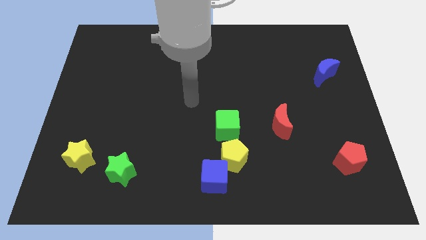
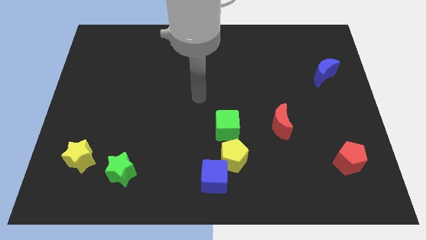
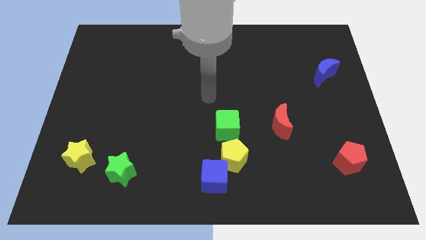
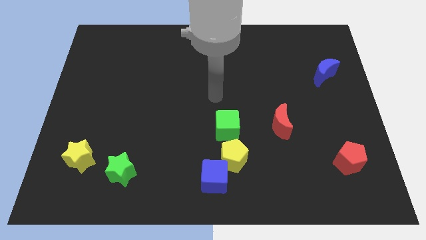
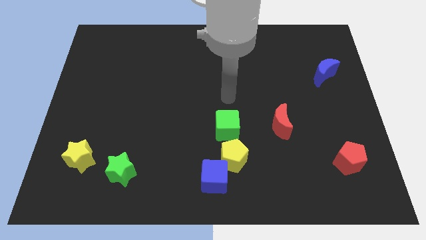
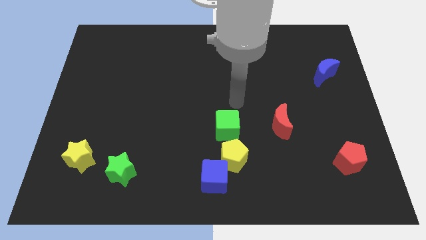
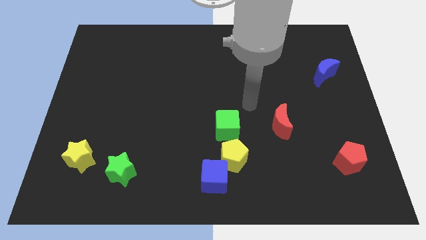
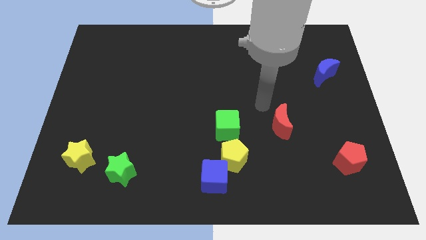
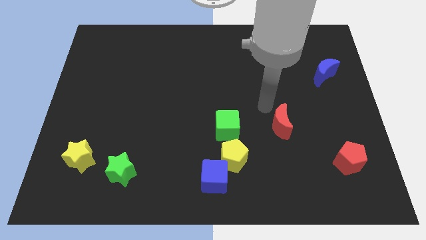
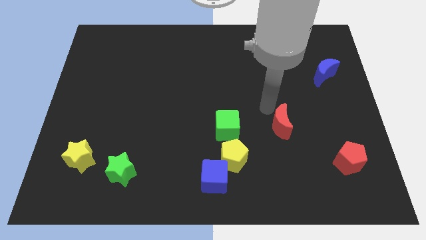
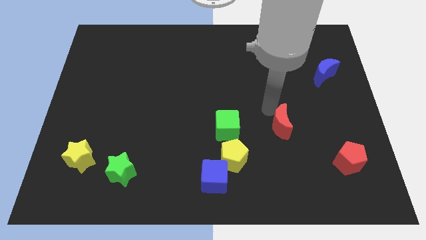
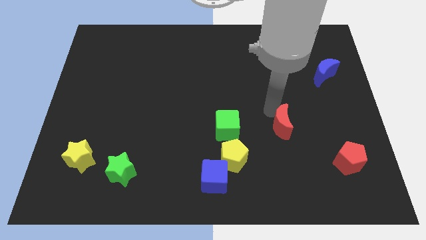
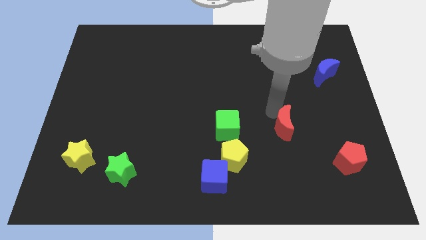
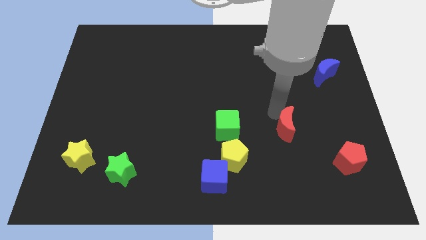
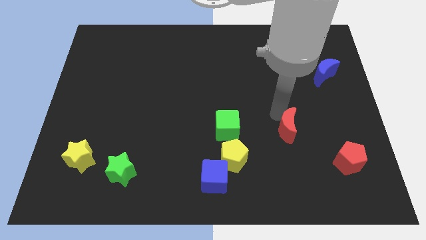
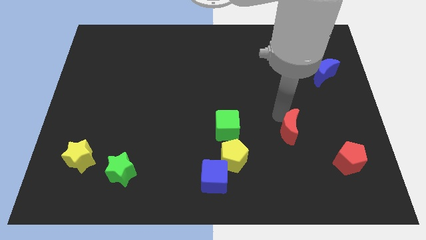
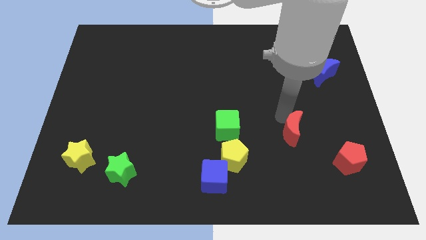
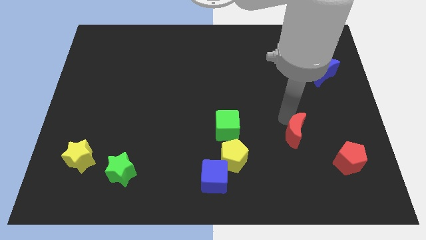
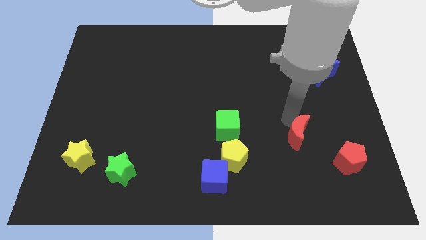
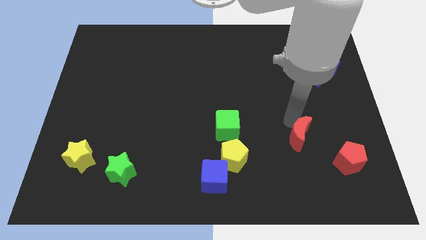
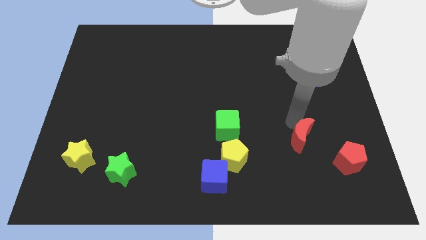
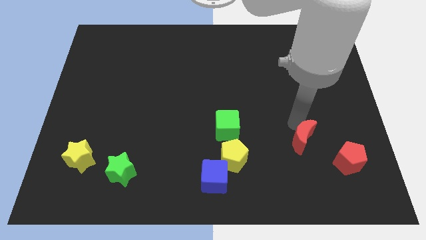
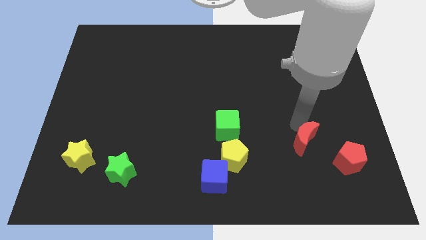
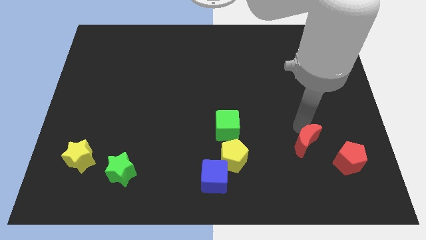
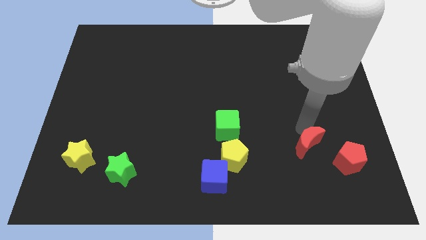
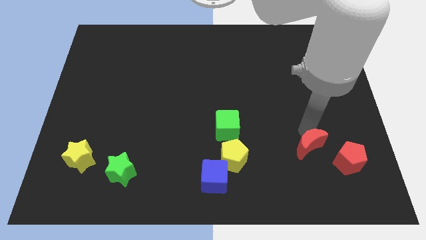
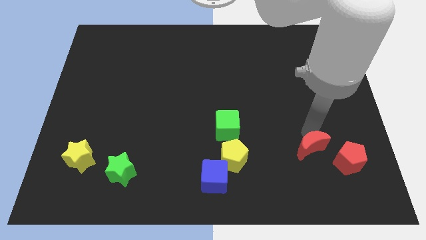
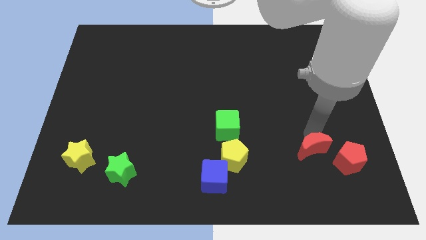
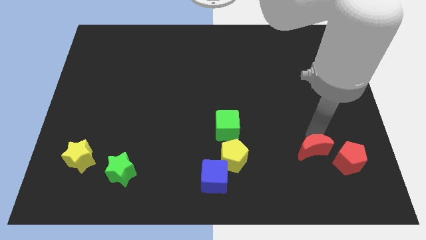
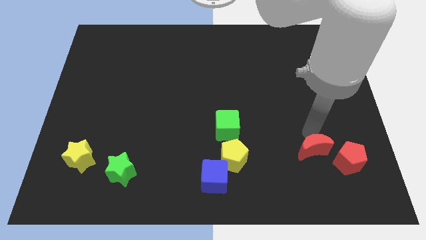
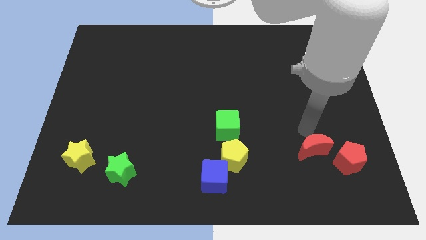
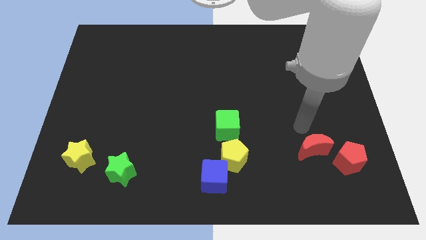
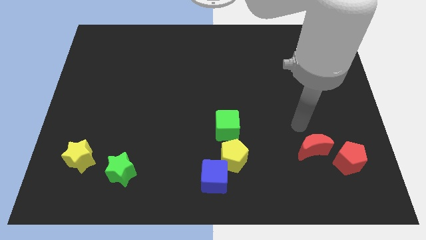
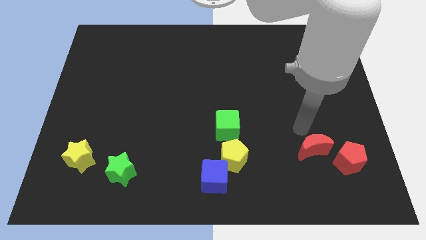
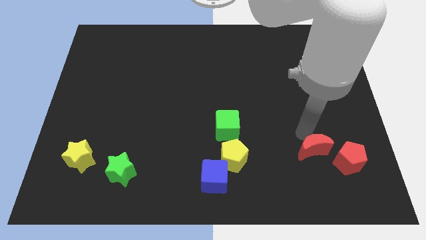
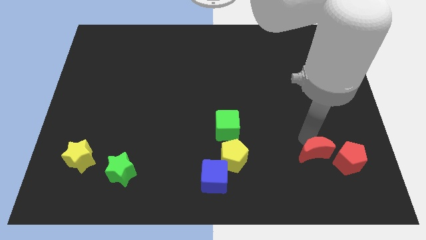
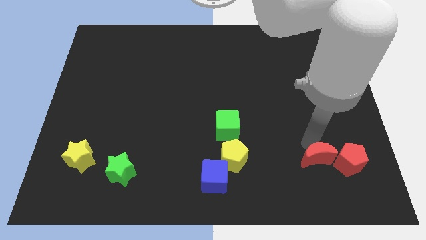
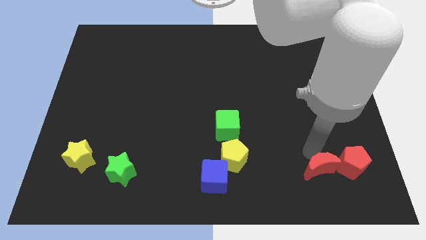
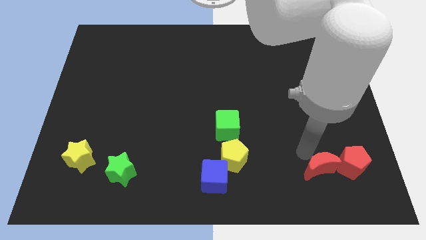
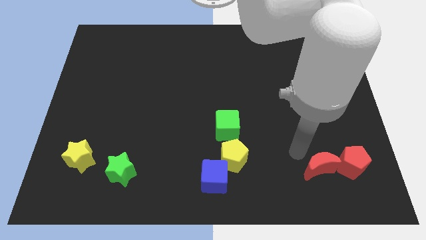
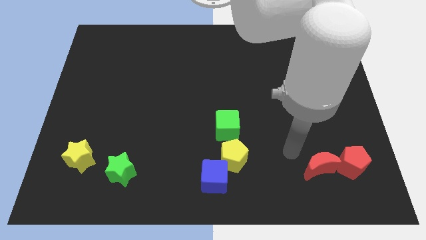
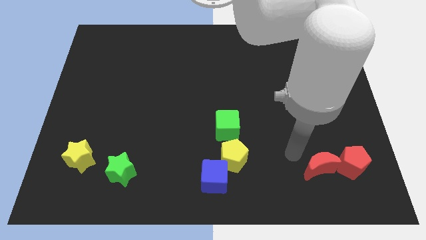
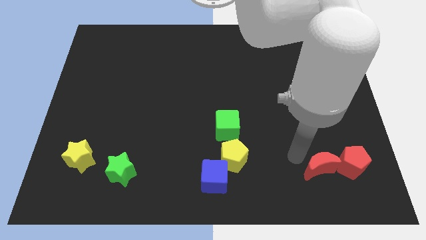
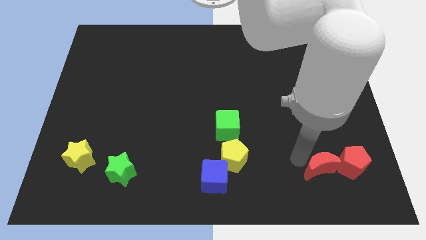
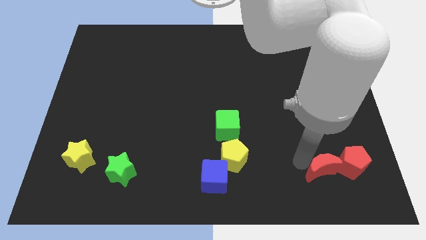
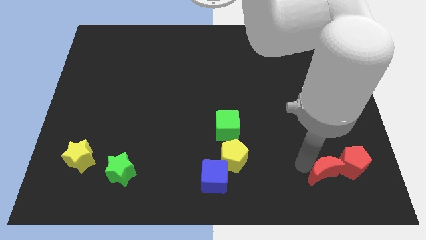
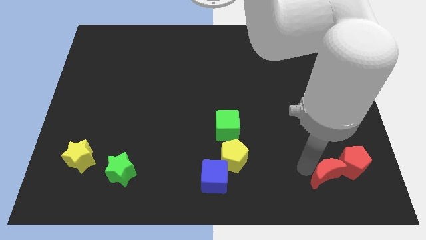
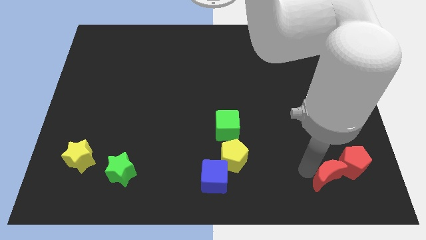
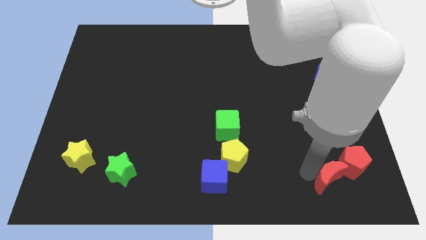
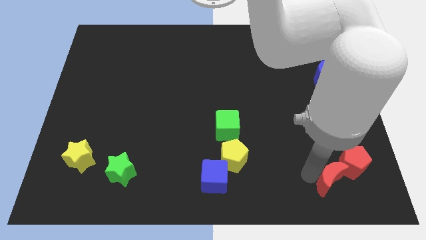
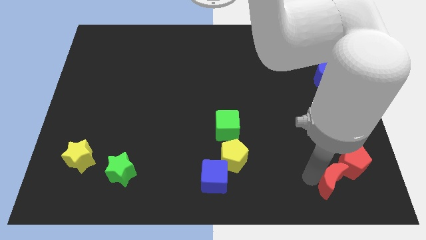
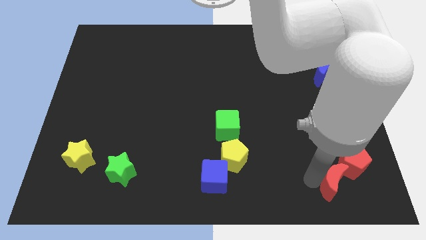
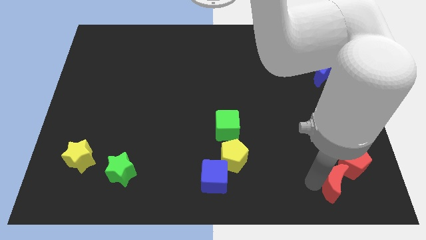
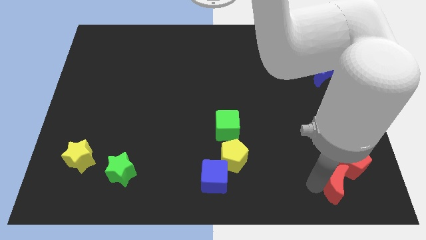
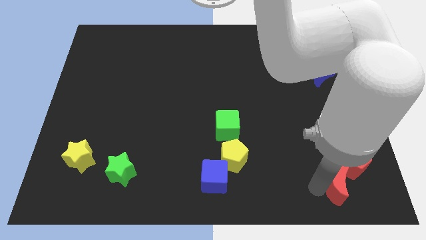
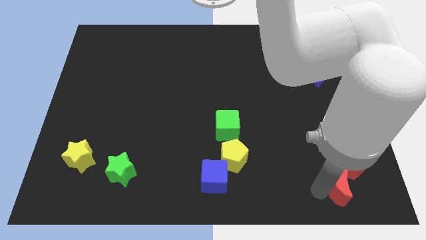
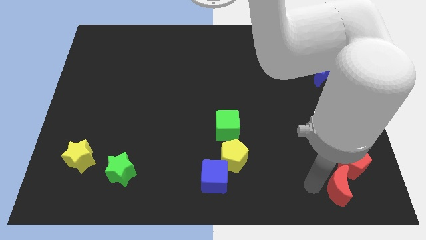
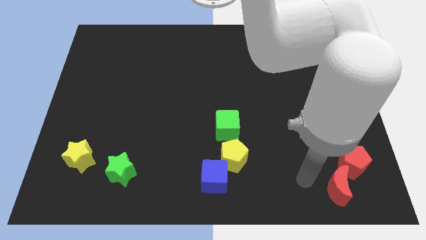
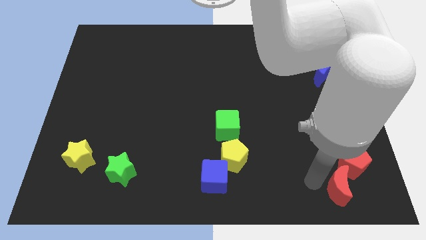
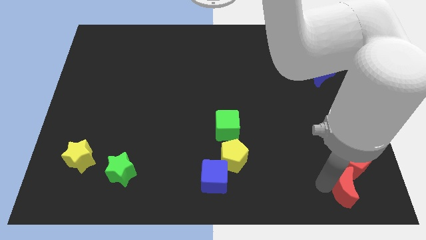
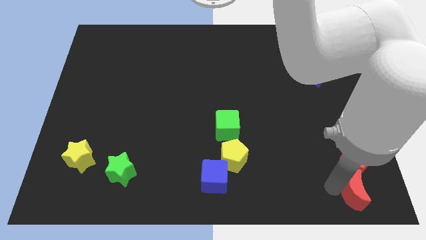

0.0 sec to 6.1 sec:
put the red moon to the lower right corner
